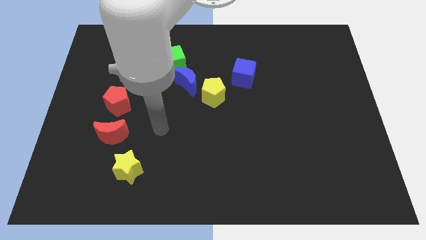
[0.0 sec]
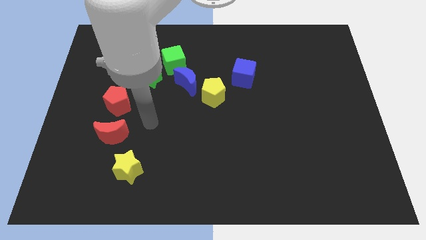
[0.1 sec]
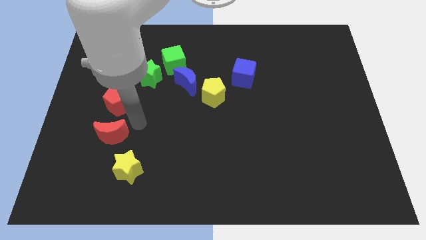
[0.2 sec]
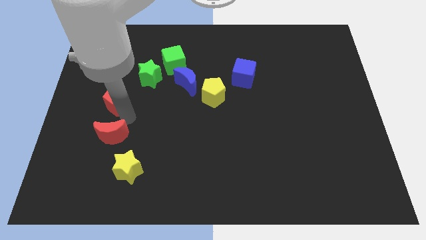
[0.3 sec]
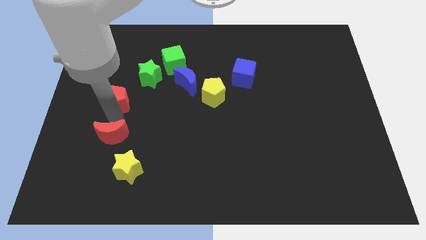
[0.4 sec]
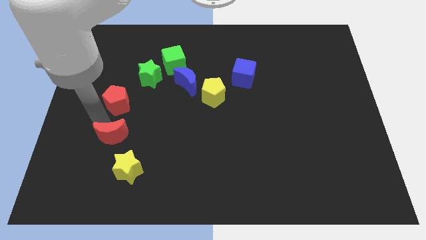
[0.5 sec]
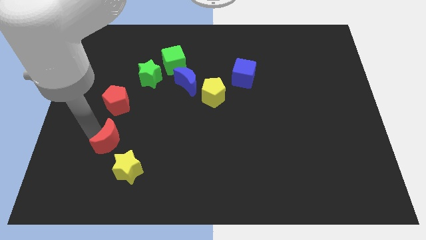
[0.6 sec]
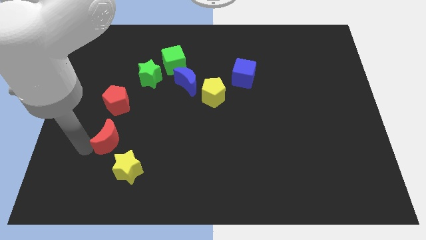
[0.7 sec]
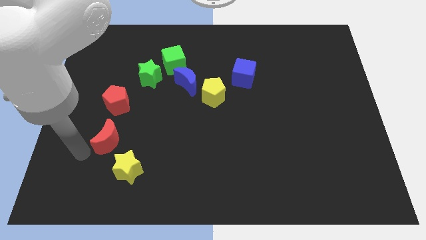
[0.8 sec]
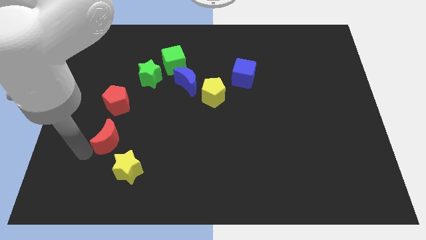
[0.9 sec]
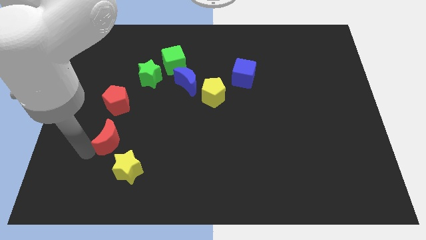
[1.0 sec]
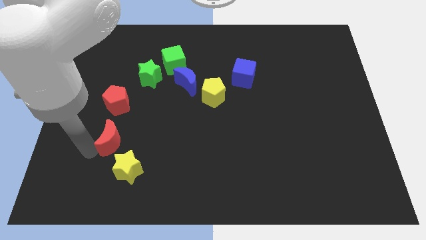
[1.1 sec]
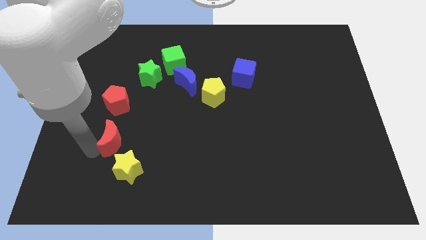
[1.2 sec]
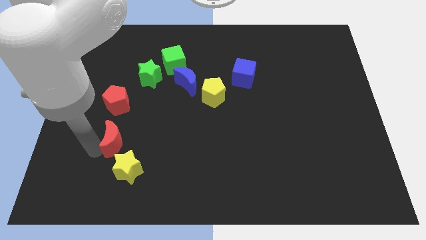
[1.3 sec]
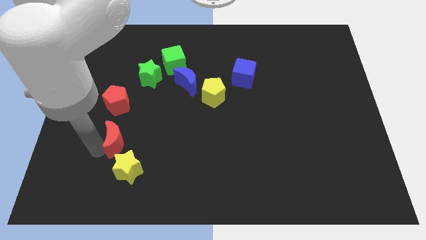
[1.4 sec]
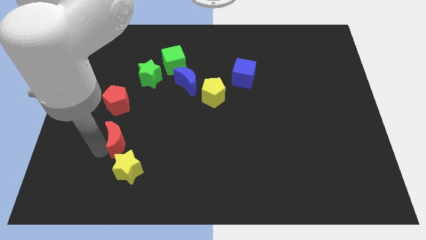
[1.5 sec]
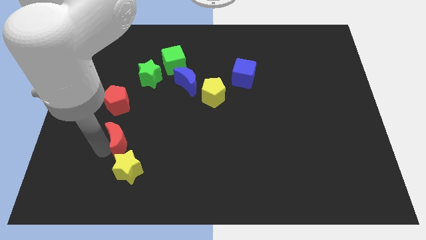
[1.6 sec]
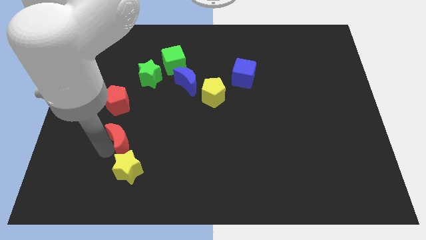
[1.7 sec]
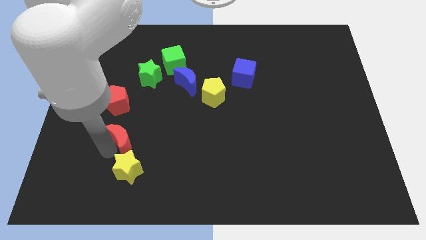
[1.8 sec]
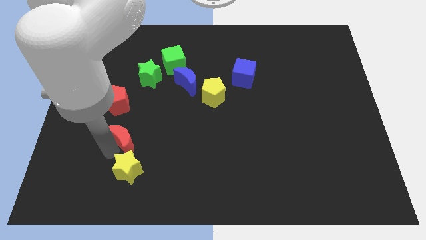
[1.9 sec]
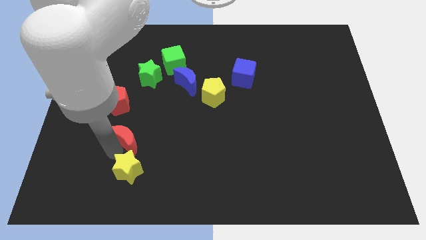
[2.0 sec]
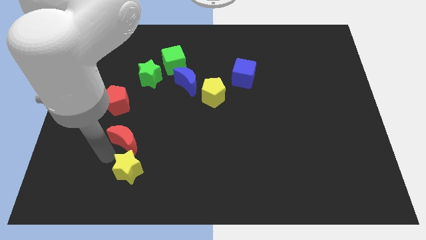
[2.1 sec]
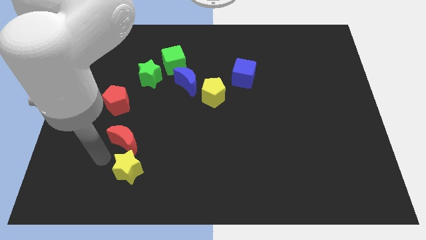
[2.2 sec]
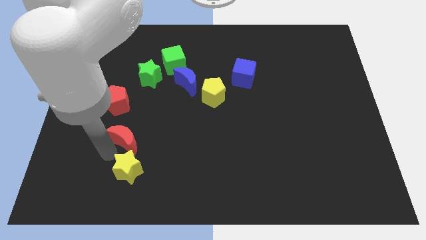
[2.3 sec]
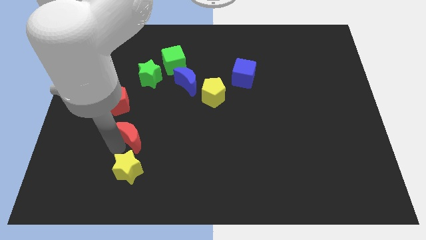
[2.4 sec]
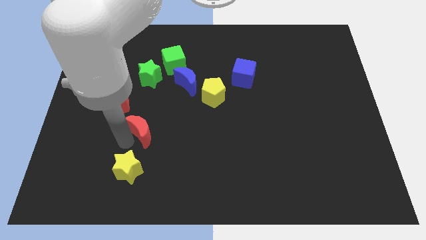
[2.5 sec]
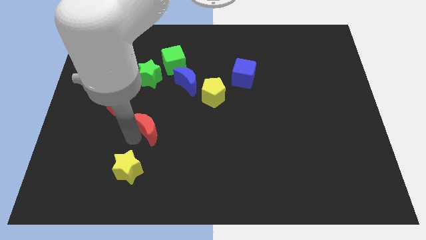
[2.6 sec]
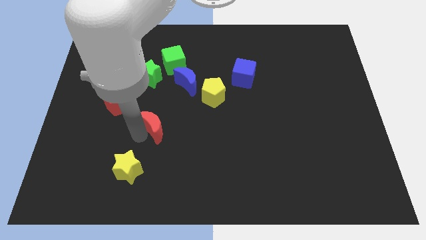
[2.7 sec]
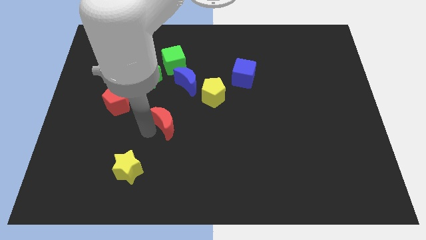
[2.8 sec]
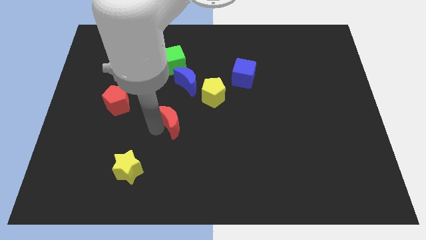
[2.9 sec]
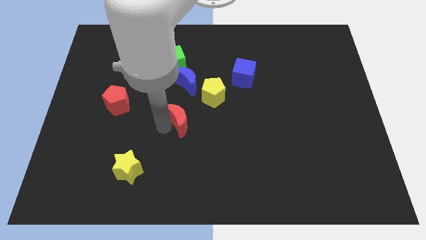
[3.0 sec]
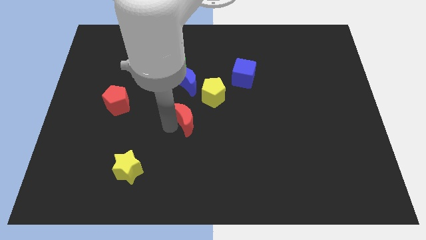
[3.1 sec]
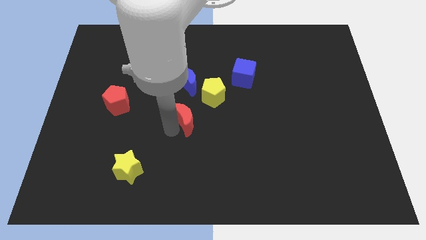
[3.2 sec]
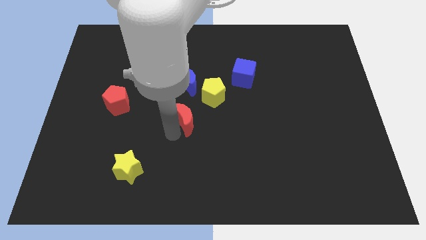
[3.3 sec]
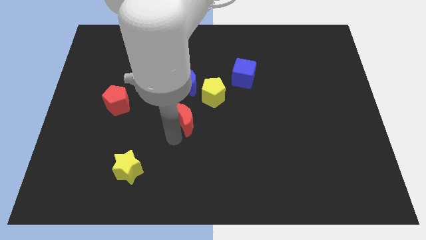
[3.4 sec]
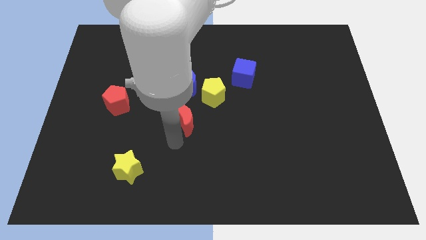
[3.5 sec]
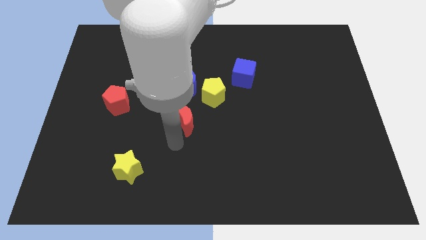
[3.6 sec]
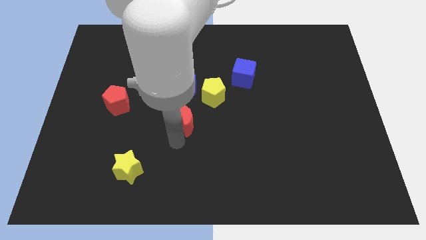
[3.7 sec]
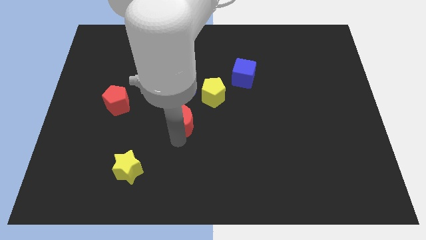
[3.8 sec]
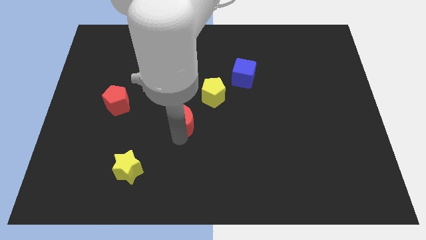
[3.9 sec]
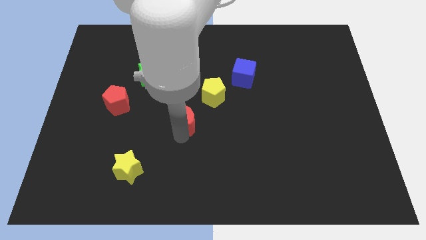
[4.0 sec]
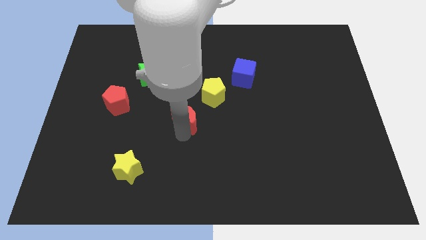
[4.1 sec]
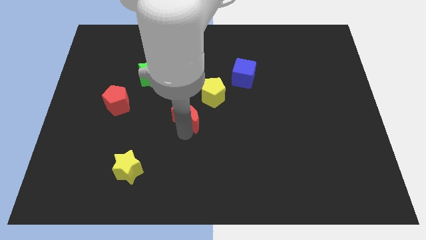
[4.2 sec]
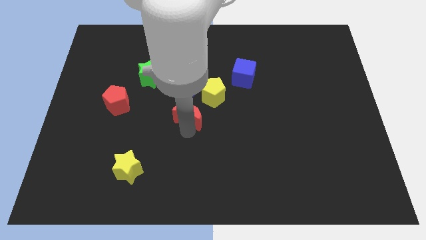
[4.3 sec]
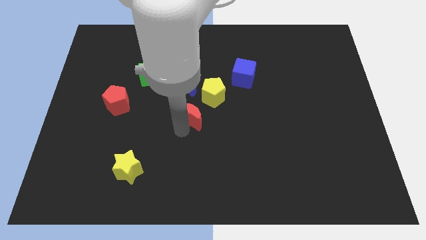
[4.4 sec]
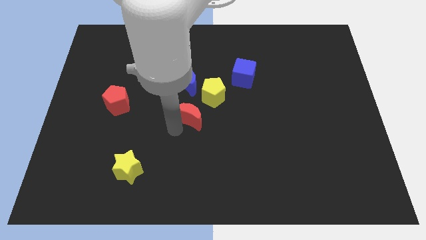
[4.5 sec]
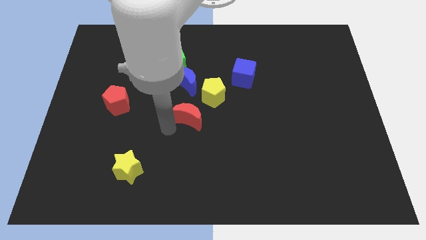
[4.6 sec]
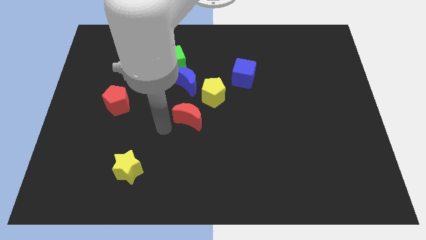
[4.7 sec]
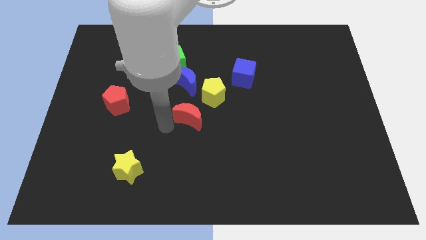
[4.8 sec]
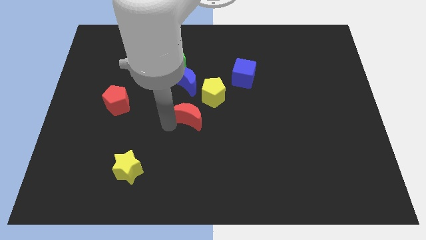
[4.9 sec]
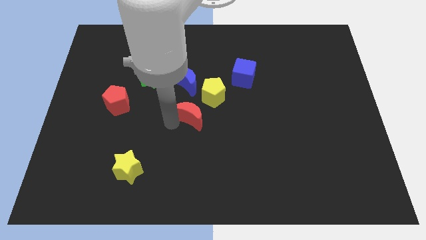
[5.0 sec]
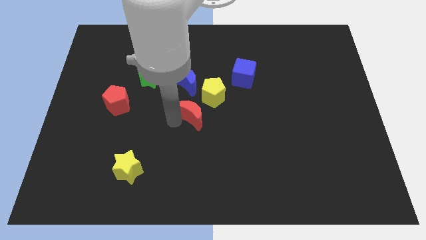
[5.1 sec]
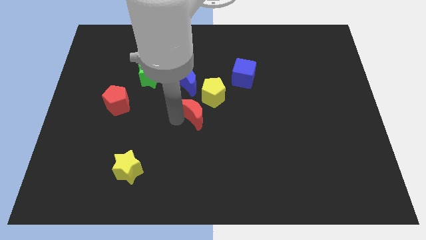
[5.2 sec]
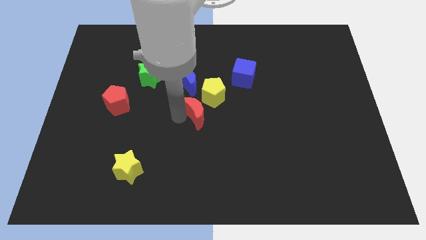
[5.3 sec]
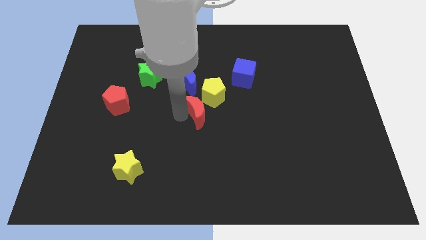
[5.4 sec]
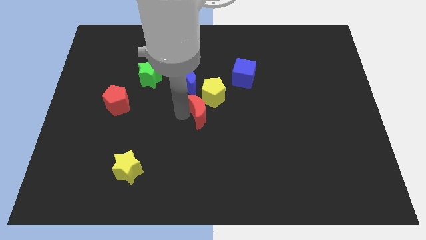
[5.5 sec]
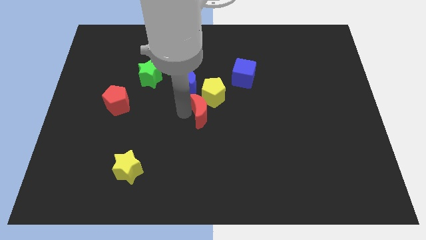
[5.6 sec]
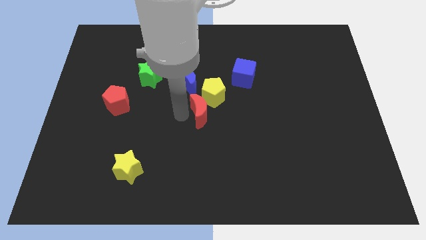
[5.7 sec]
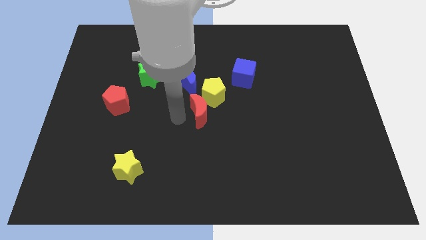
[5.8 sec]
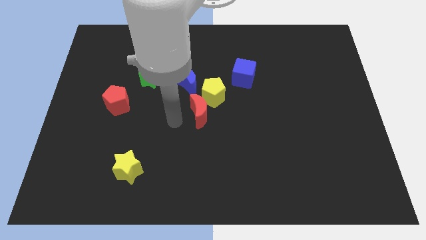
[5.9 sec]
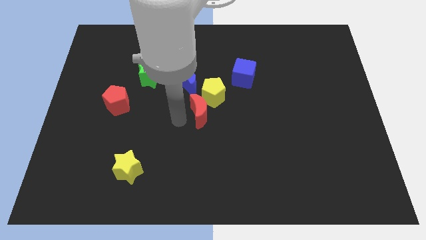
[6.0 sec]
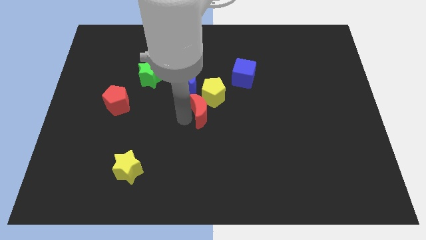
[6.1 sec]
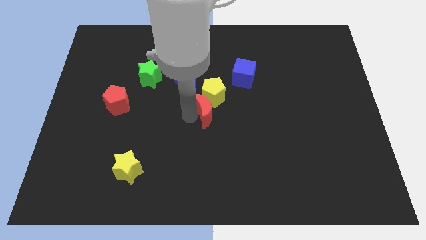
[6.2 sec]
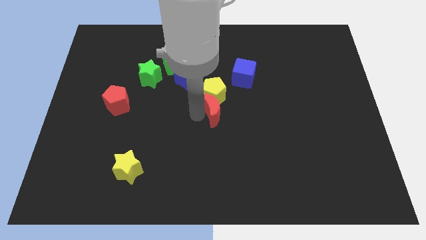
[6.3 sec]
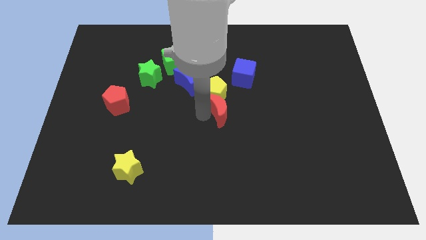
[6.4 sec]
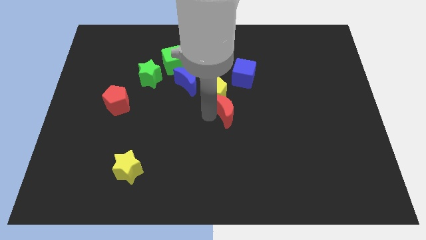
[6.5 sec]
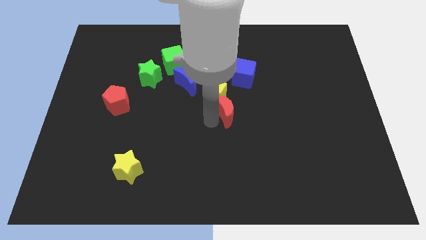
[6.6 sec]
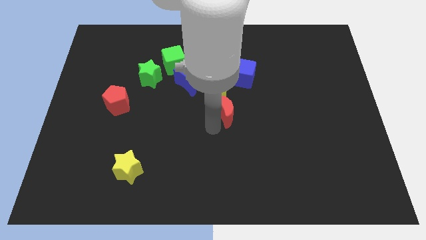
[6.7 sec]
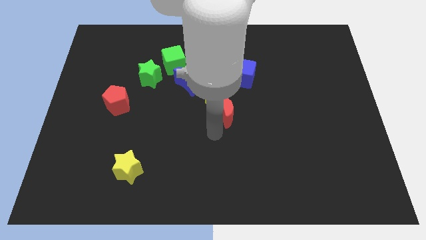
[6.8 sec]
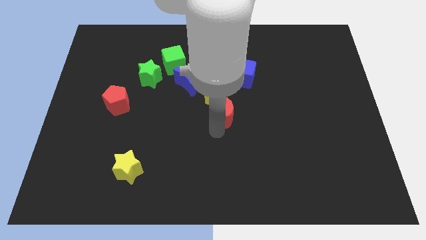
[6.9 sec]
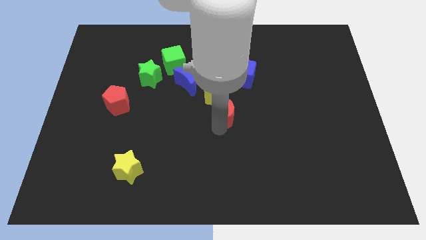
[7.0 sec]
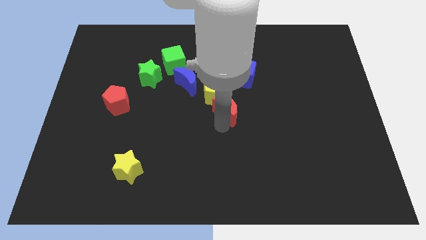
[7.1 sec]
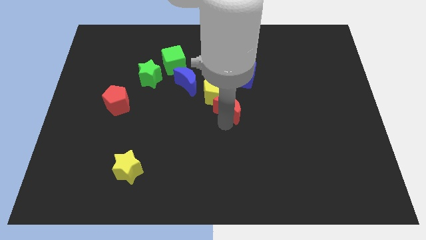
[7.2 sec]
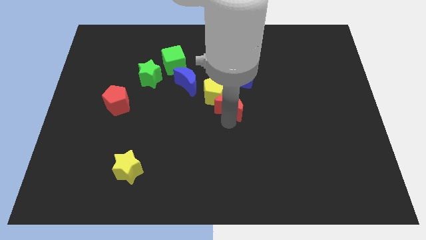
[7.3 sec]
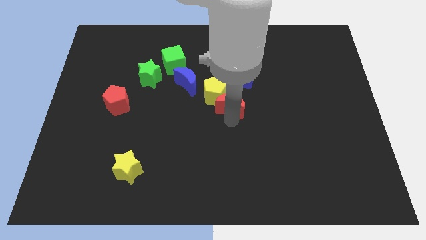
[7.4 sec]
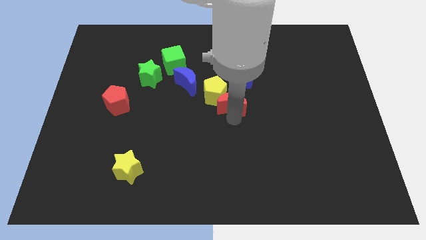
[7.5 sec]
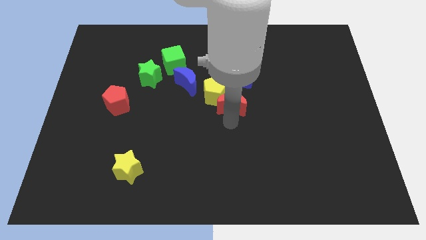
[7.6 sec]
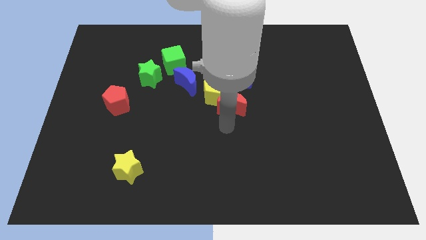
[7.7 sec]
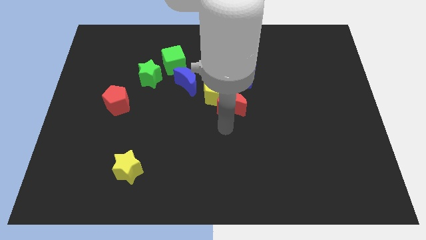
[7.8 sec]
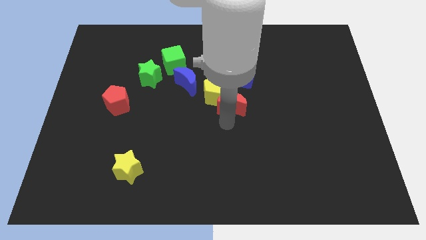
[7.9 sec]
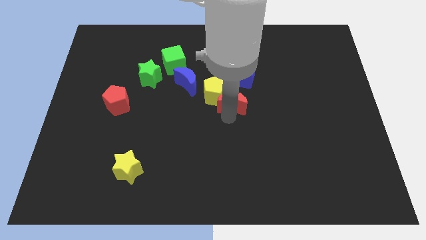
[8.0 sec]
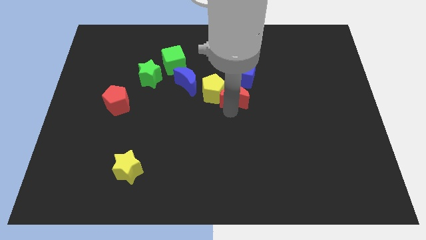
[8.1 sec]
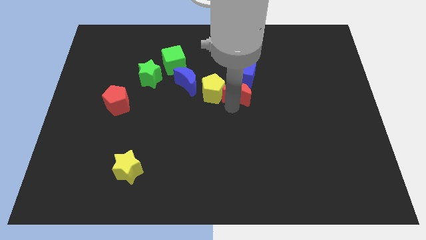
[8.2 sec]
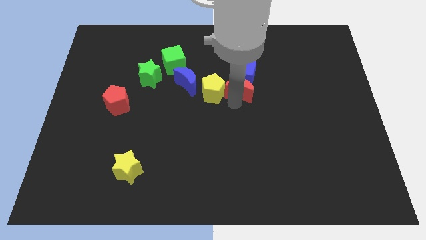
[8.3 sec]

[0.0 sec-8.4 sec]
slide the red moon close to the blue cube
